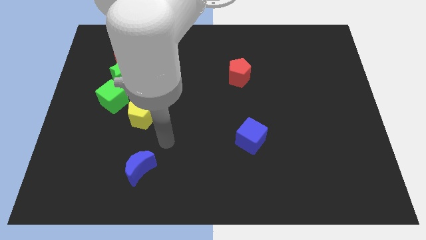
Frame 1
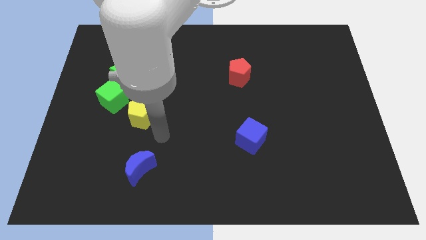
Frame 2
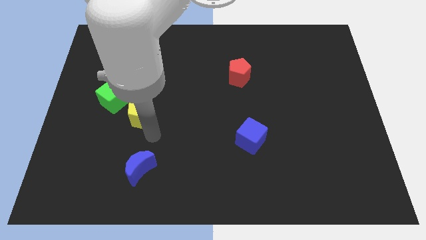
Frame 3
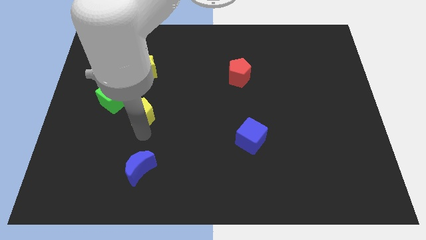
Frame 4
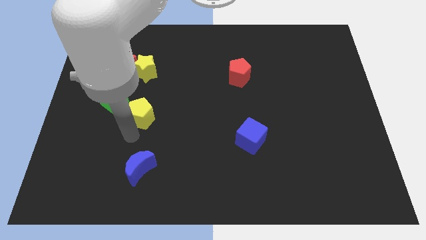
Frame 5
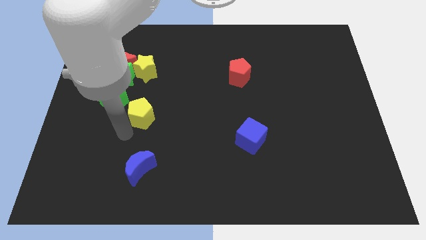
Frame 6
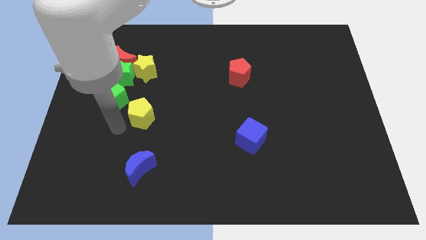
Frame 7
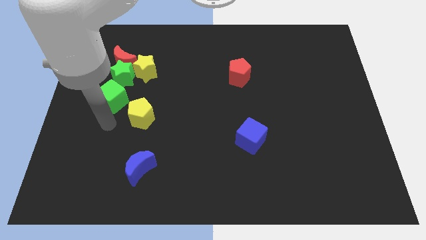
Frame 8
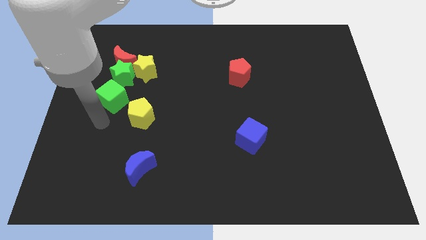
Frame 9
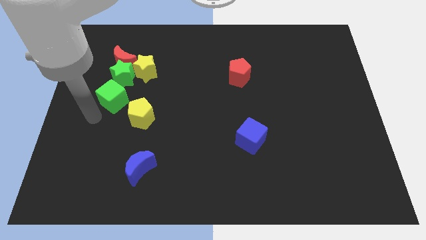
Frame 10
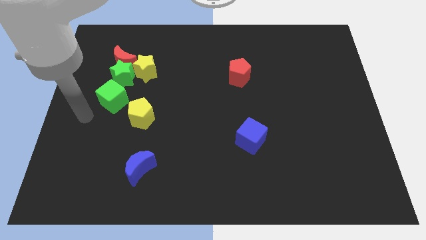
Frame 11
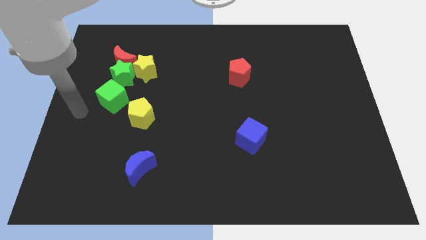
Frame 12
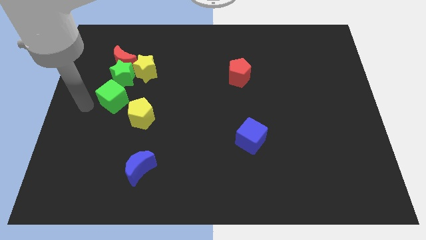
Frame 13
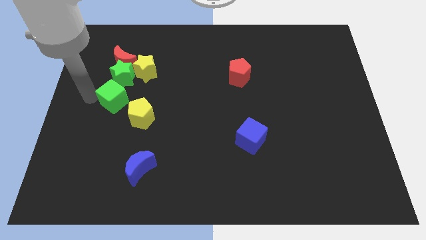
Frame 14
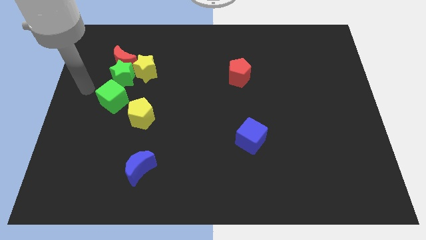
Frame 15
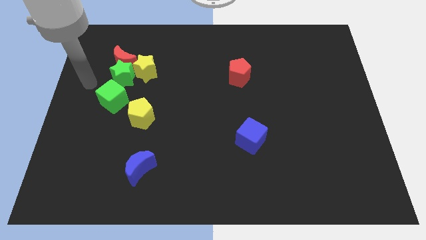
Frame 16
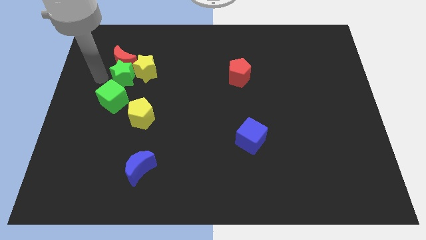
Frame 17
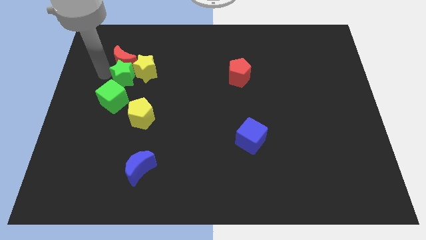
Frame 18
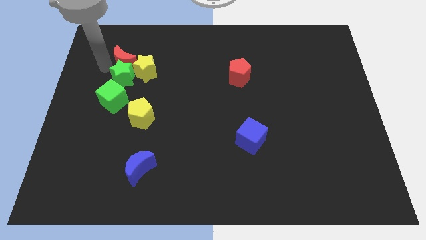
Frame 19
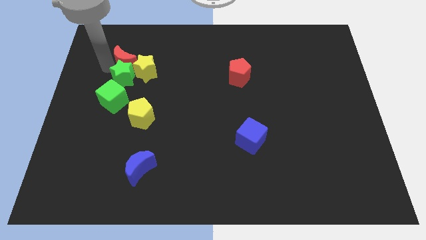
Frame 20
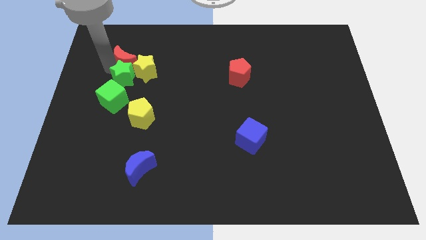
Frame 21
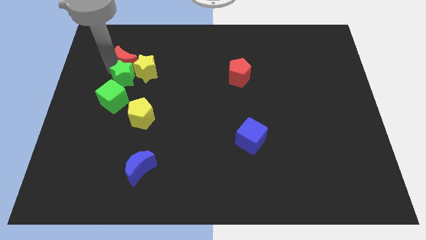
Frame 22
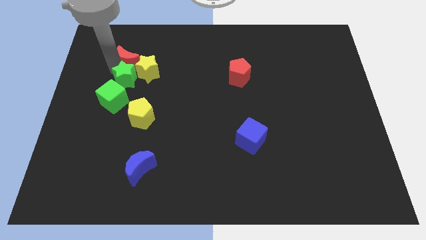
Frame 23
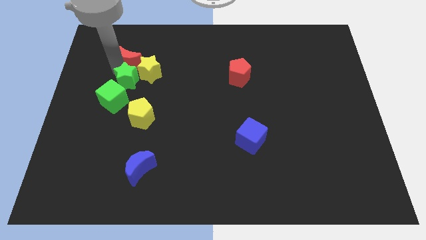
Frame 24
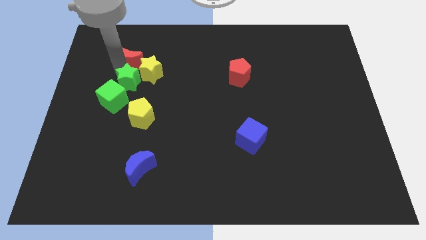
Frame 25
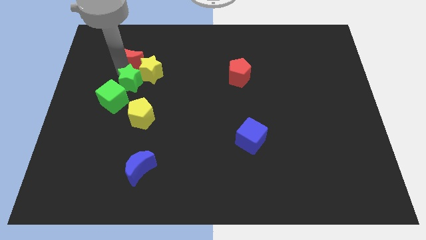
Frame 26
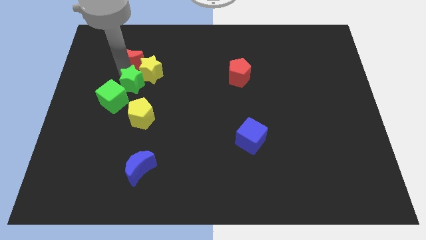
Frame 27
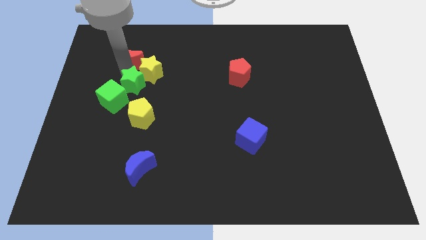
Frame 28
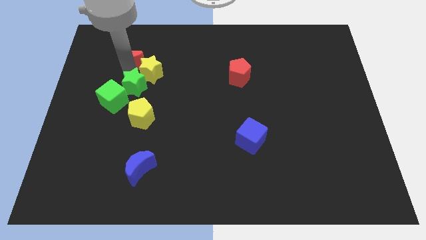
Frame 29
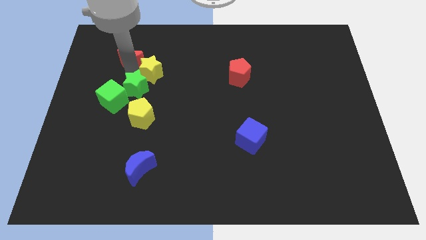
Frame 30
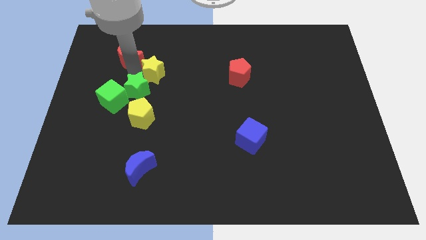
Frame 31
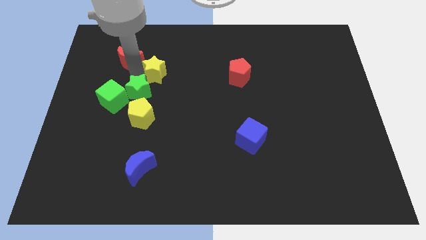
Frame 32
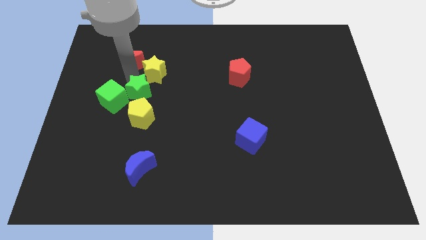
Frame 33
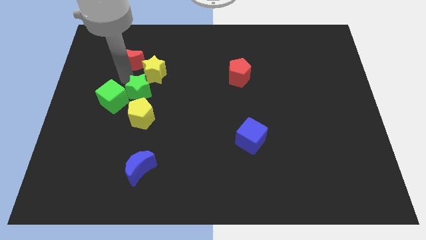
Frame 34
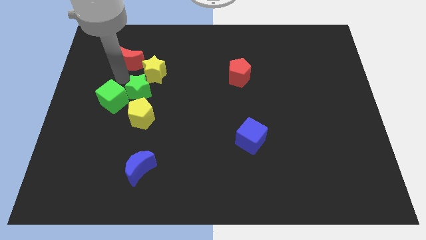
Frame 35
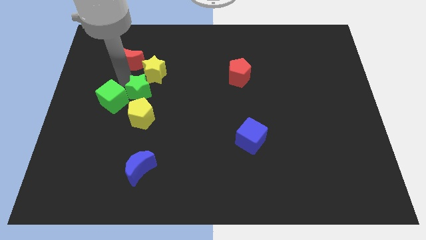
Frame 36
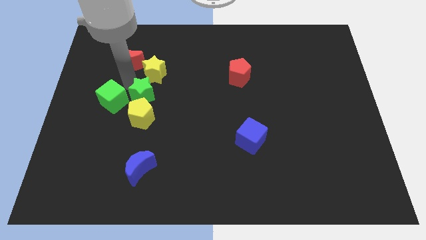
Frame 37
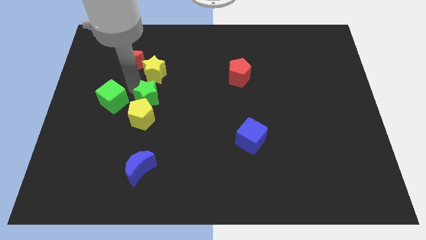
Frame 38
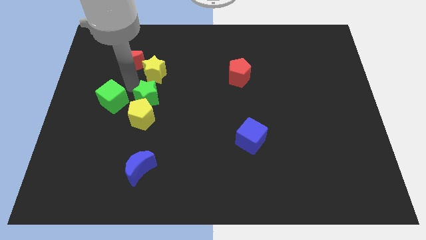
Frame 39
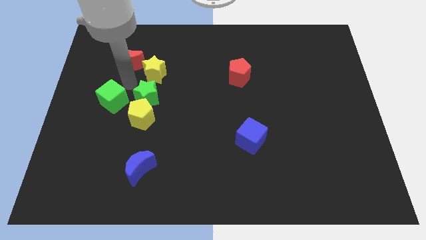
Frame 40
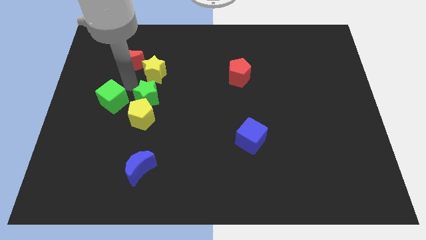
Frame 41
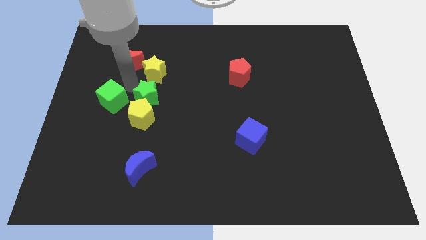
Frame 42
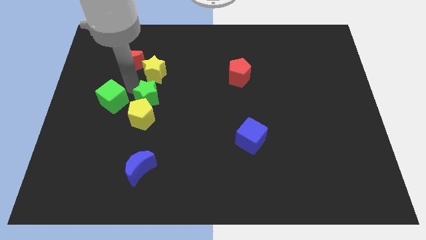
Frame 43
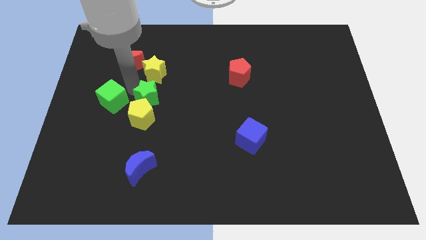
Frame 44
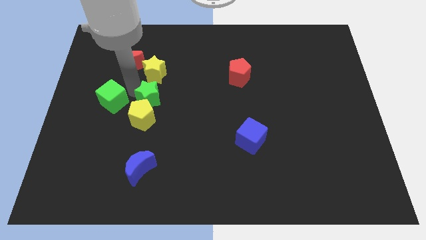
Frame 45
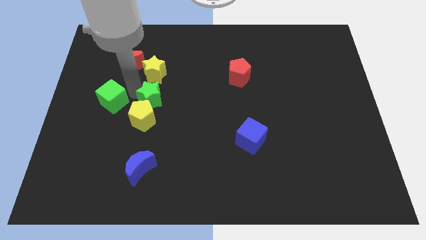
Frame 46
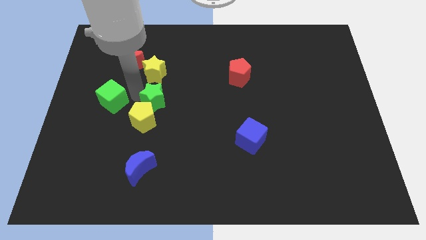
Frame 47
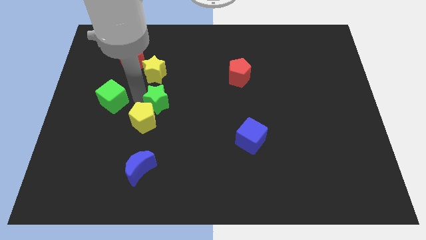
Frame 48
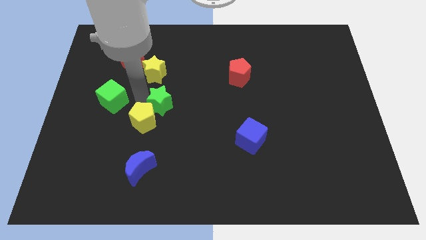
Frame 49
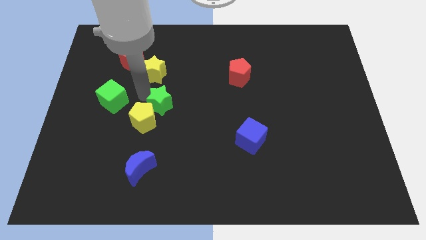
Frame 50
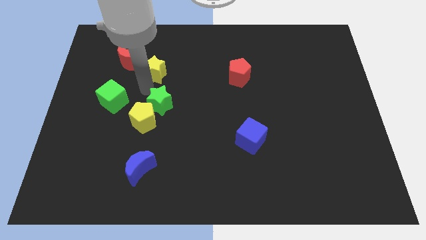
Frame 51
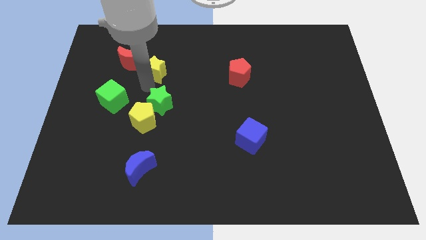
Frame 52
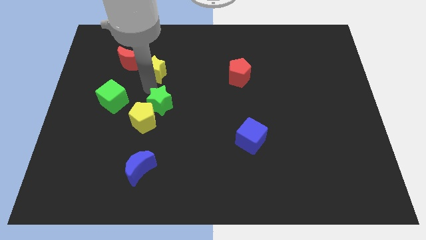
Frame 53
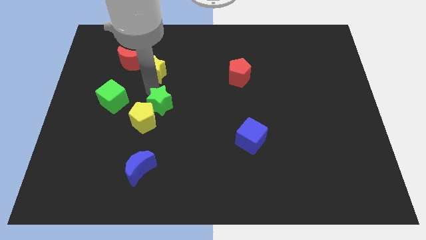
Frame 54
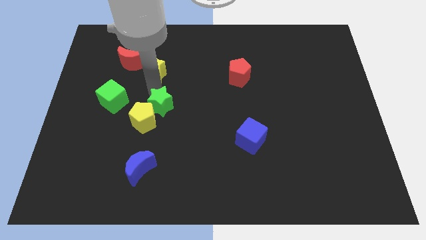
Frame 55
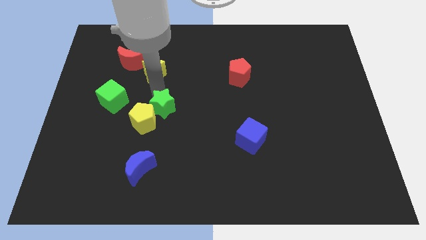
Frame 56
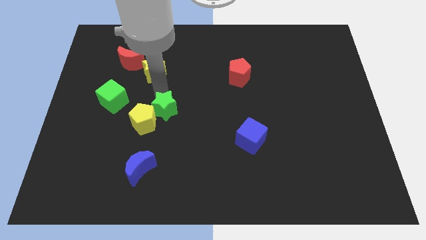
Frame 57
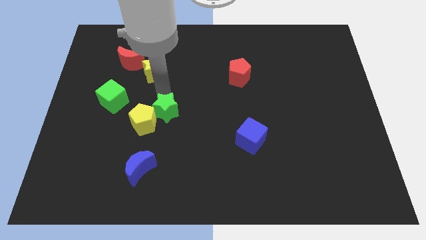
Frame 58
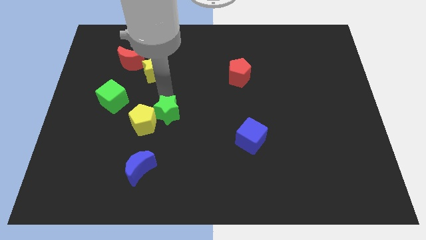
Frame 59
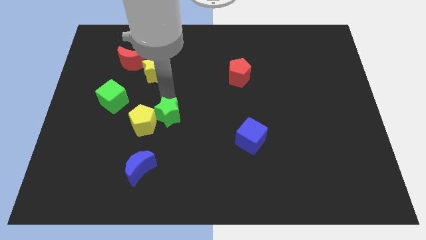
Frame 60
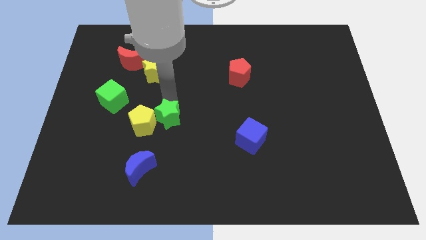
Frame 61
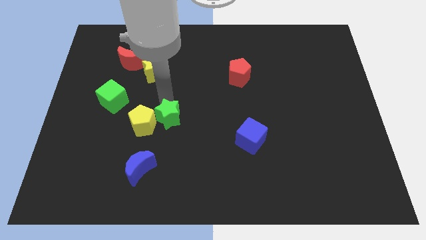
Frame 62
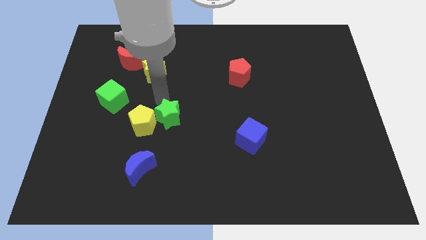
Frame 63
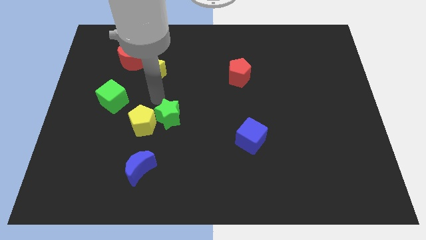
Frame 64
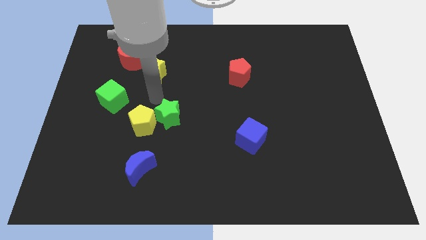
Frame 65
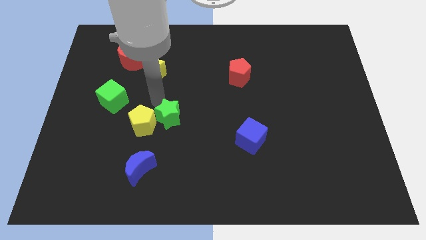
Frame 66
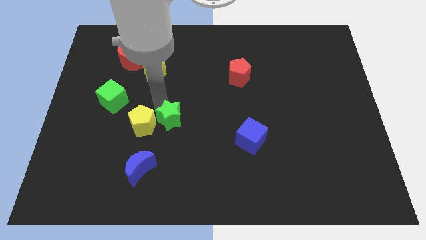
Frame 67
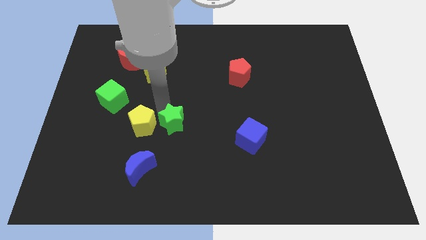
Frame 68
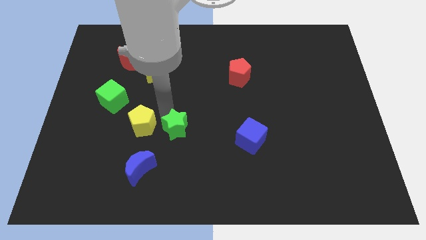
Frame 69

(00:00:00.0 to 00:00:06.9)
push the green star diagonally down and right

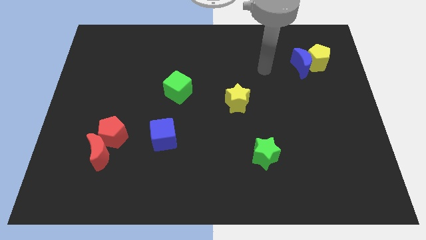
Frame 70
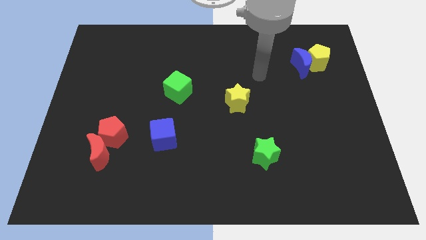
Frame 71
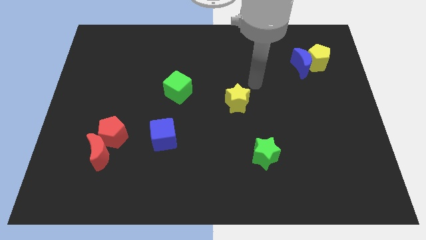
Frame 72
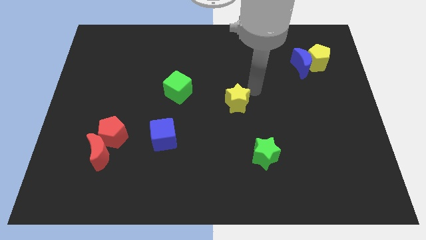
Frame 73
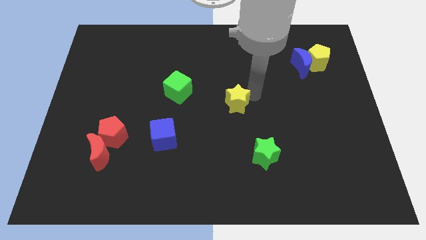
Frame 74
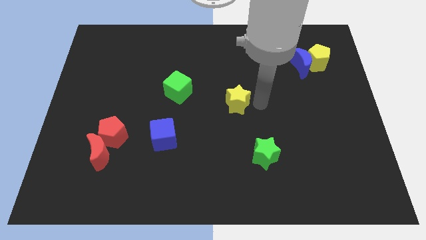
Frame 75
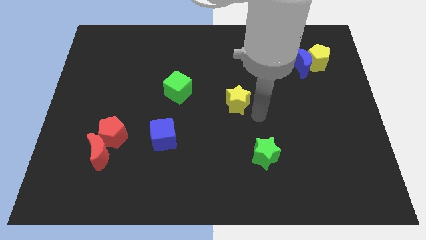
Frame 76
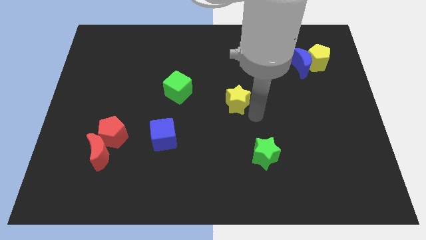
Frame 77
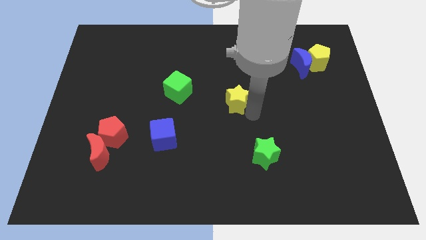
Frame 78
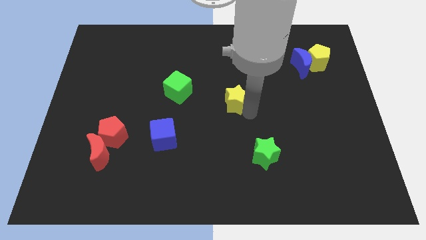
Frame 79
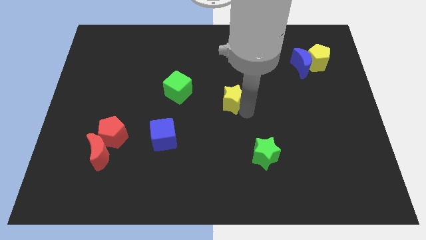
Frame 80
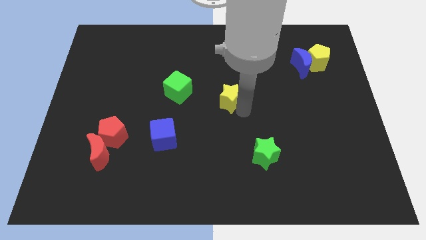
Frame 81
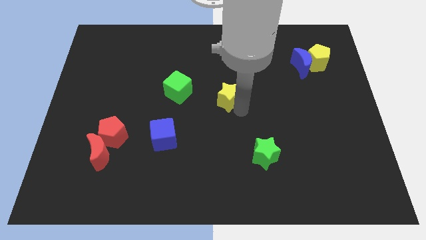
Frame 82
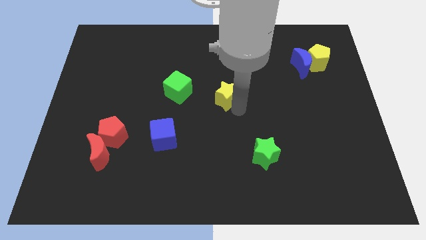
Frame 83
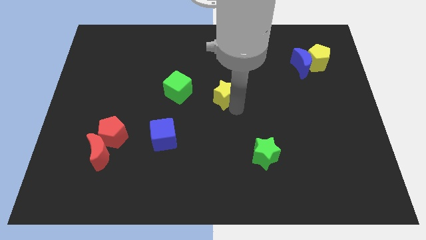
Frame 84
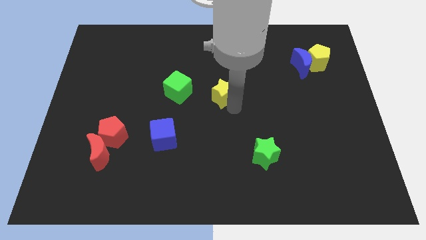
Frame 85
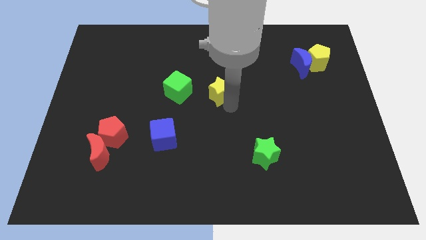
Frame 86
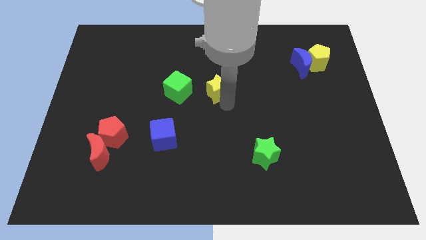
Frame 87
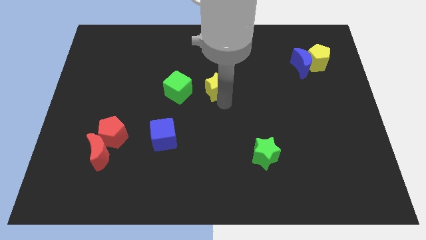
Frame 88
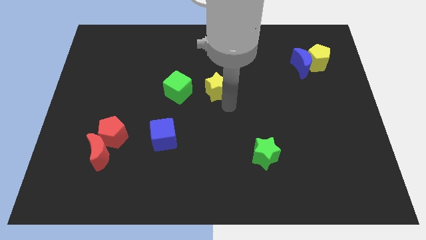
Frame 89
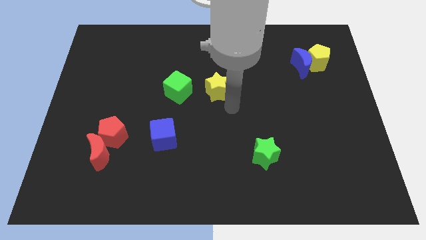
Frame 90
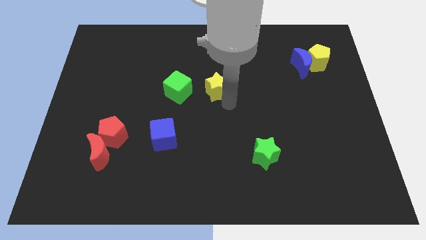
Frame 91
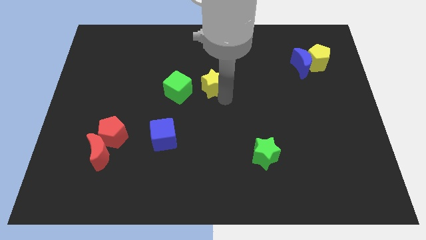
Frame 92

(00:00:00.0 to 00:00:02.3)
push the yellow star somewhat upwards and left diagonally
